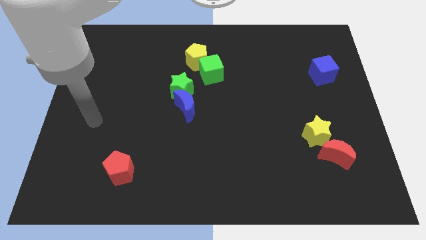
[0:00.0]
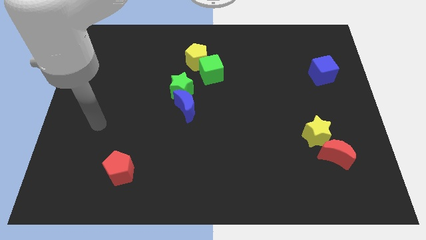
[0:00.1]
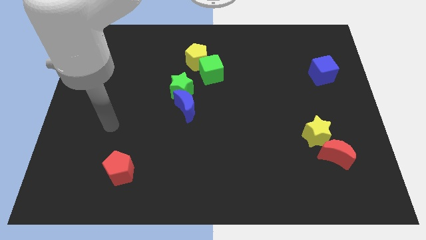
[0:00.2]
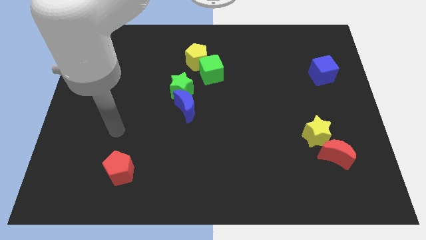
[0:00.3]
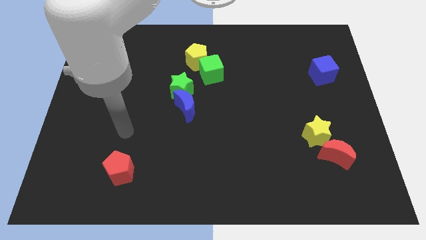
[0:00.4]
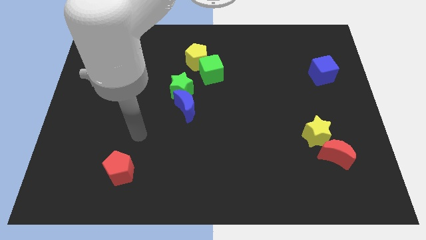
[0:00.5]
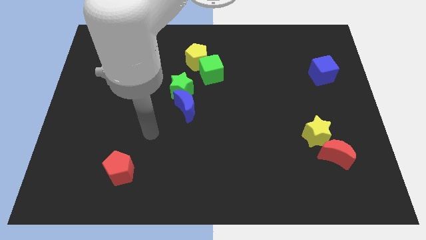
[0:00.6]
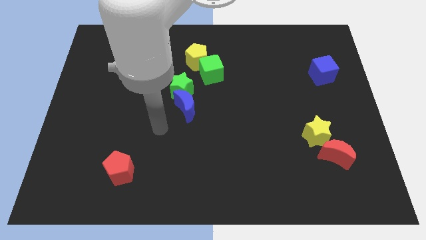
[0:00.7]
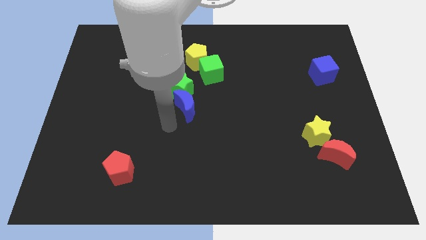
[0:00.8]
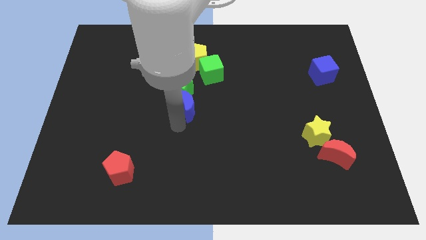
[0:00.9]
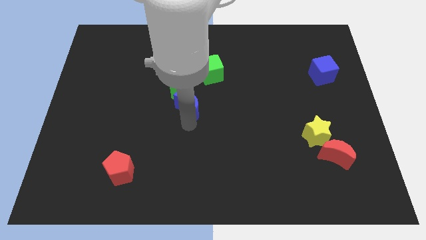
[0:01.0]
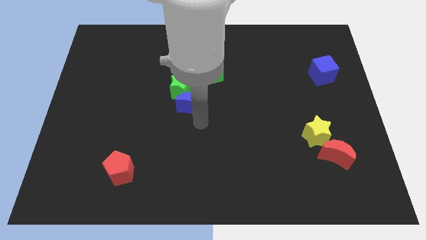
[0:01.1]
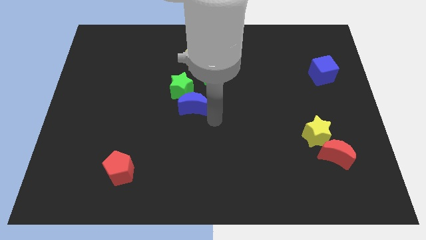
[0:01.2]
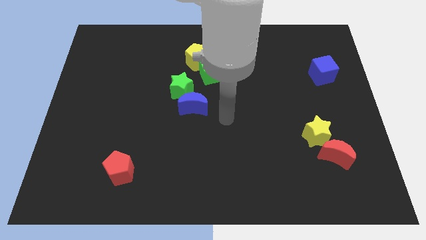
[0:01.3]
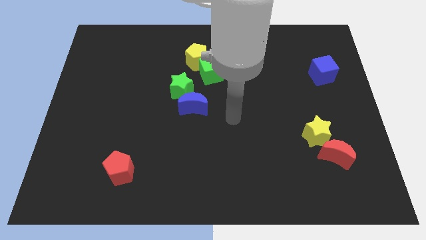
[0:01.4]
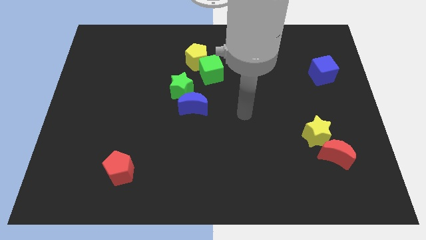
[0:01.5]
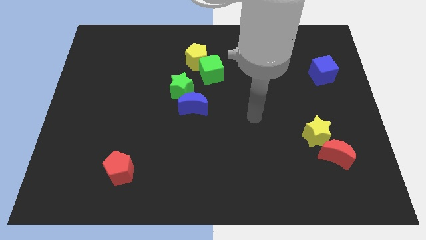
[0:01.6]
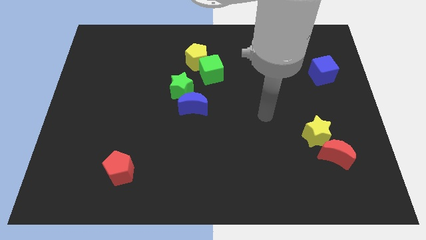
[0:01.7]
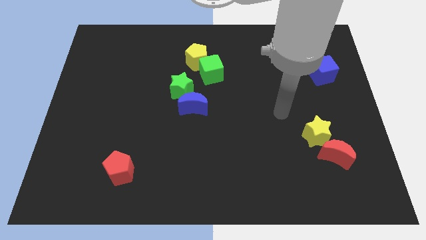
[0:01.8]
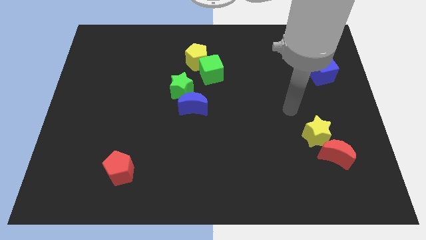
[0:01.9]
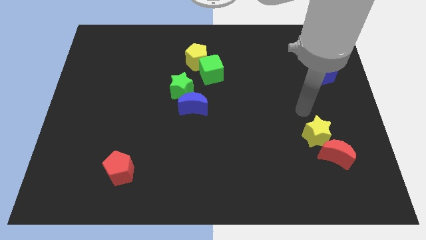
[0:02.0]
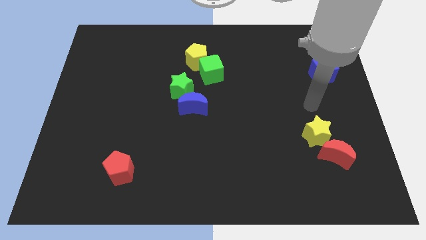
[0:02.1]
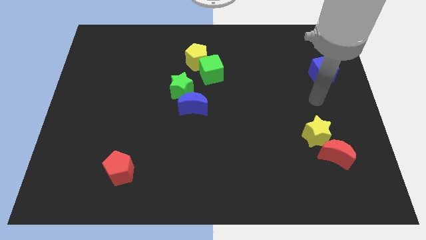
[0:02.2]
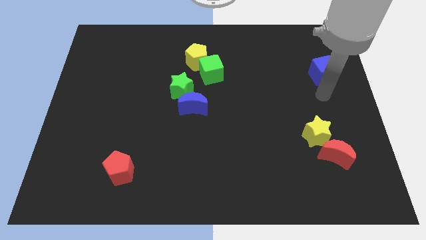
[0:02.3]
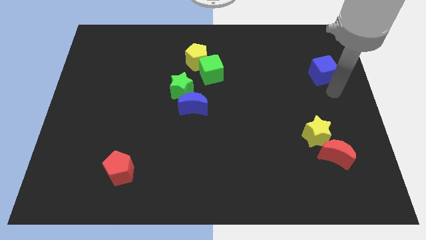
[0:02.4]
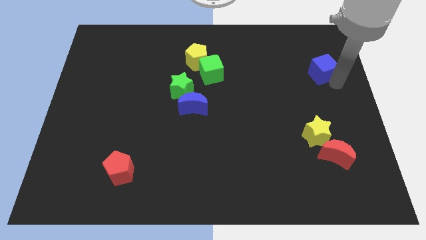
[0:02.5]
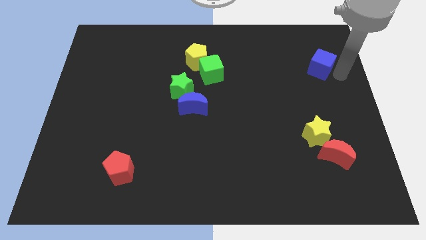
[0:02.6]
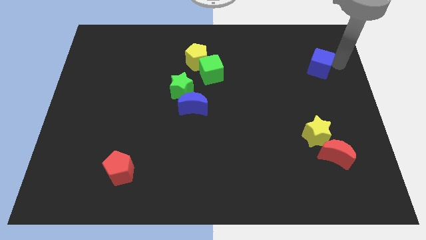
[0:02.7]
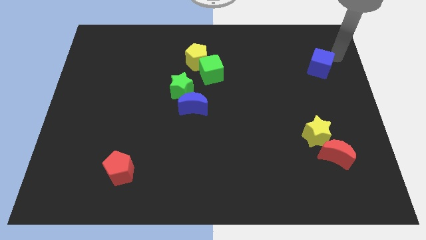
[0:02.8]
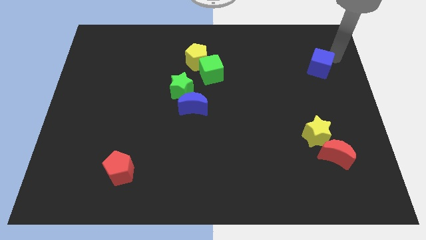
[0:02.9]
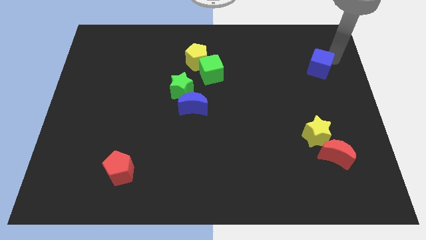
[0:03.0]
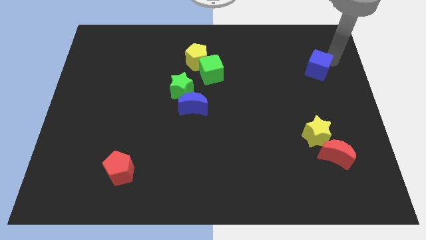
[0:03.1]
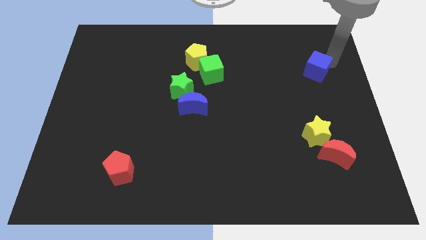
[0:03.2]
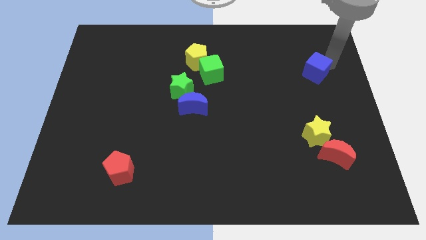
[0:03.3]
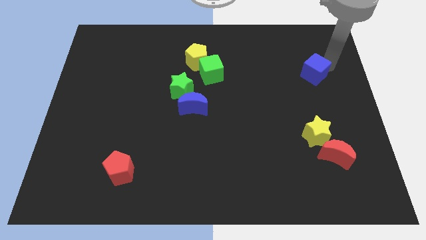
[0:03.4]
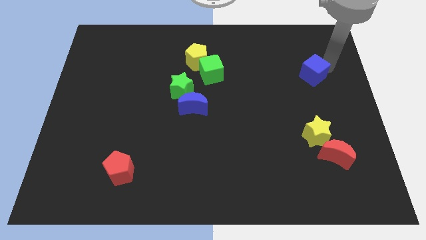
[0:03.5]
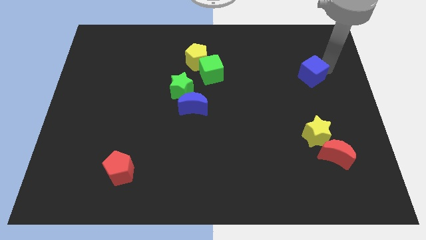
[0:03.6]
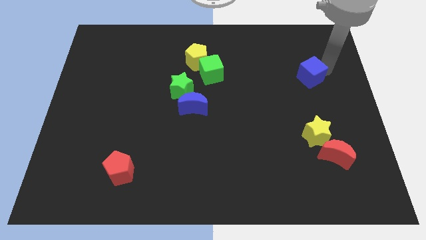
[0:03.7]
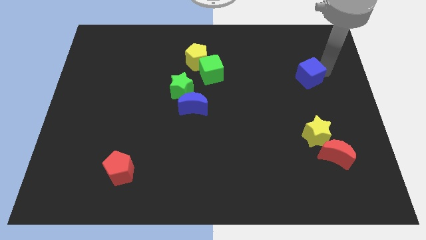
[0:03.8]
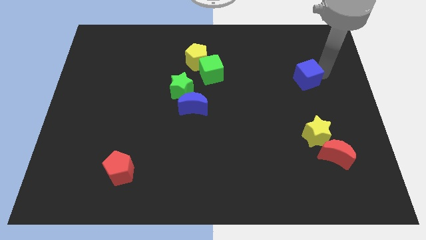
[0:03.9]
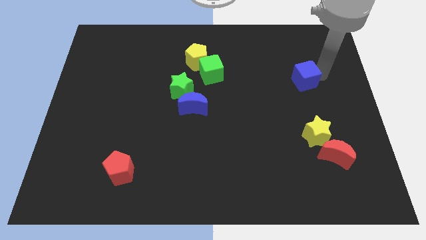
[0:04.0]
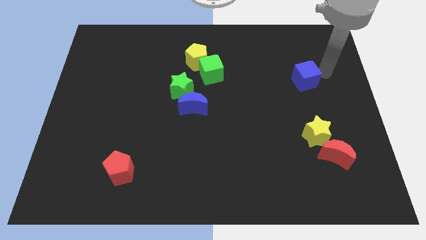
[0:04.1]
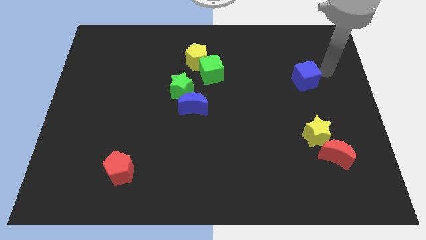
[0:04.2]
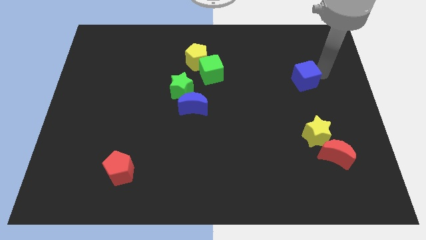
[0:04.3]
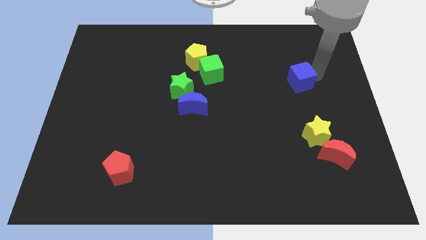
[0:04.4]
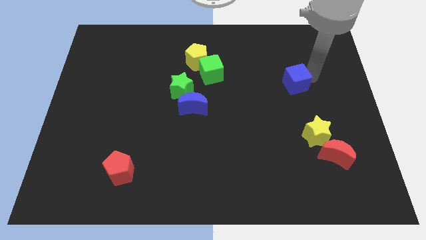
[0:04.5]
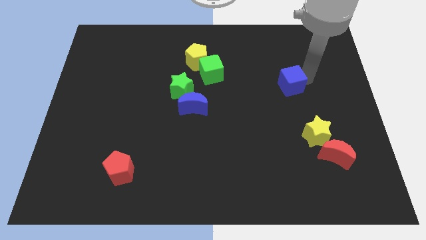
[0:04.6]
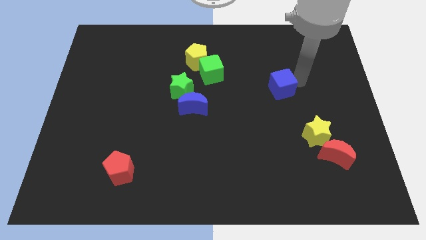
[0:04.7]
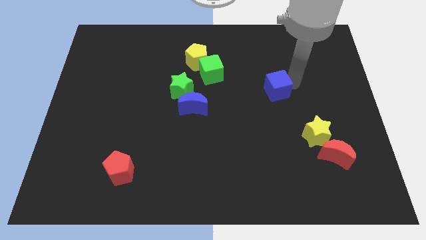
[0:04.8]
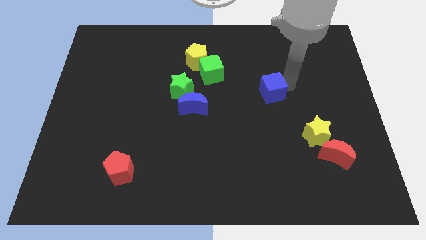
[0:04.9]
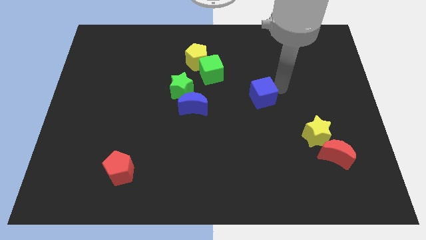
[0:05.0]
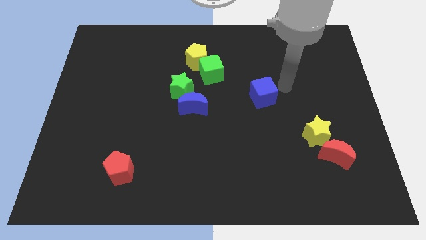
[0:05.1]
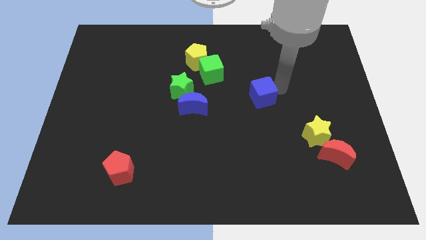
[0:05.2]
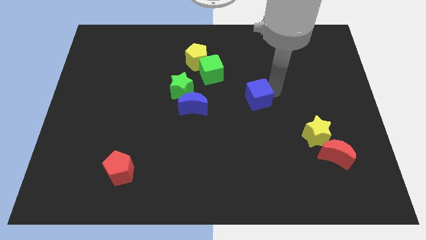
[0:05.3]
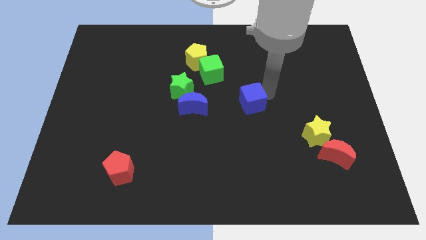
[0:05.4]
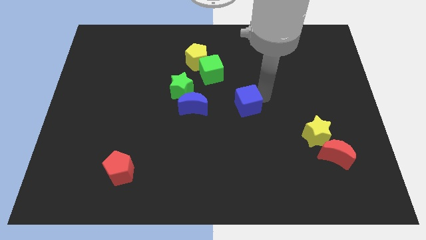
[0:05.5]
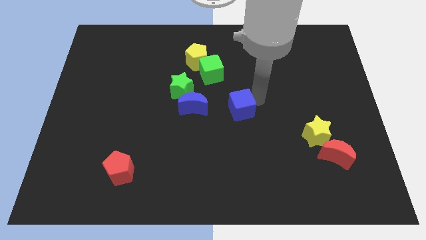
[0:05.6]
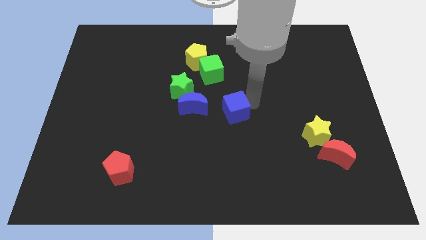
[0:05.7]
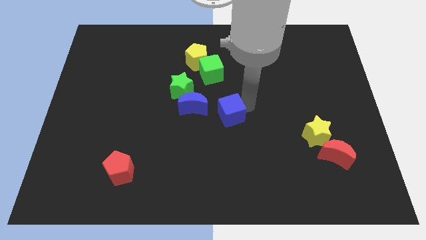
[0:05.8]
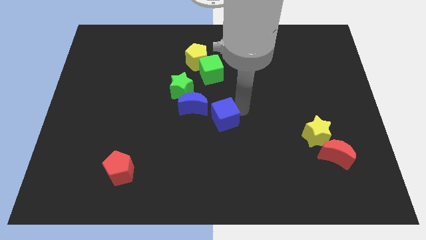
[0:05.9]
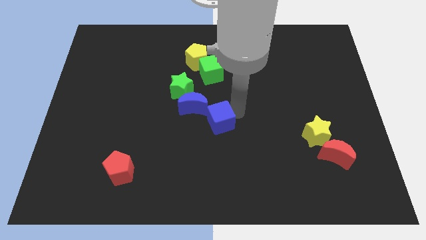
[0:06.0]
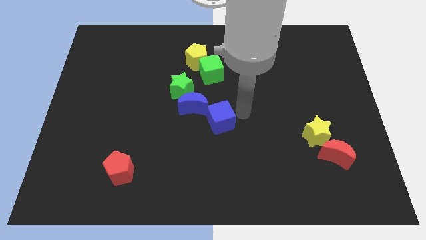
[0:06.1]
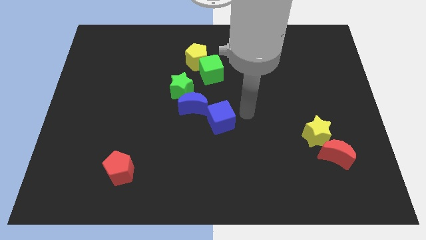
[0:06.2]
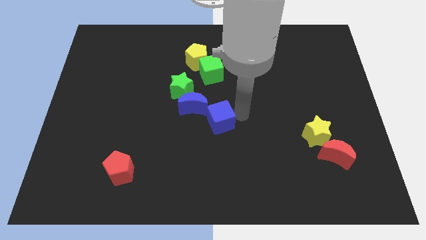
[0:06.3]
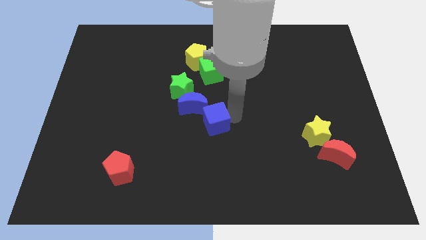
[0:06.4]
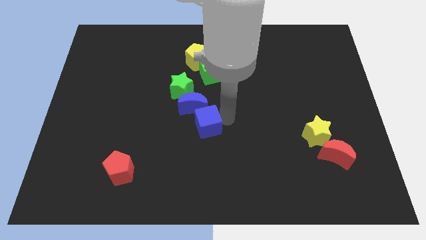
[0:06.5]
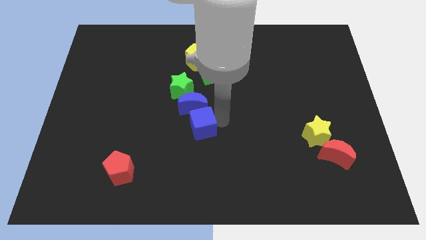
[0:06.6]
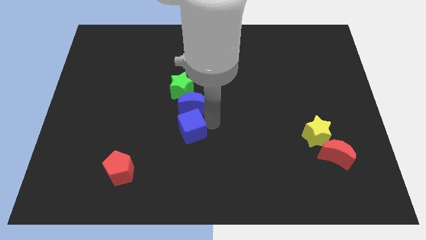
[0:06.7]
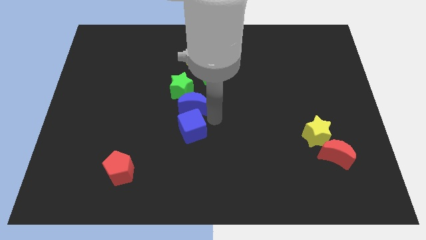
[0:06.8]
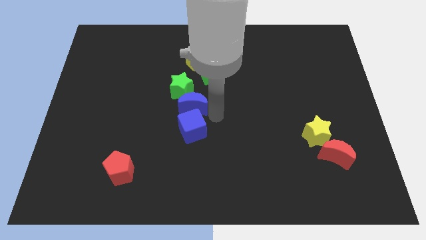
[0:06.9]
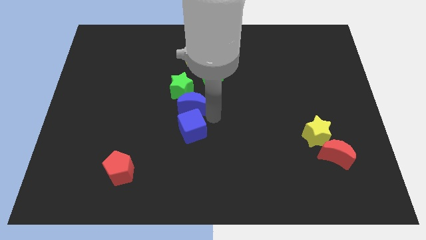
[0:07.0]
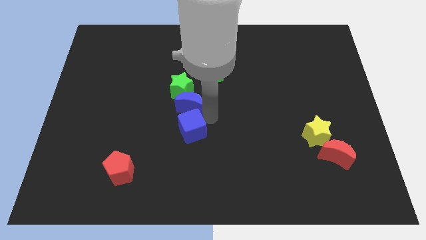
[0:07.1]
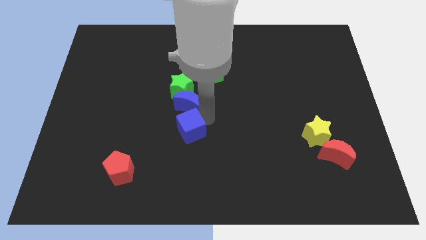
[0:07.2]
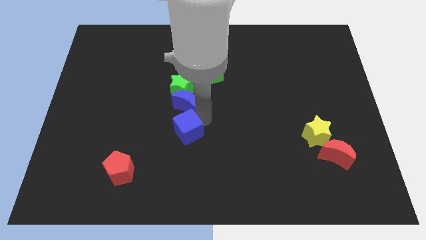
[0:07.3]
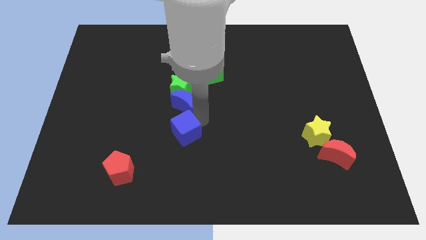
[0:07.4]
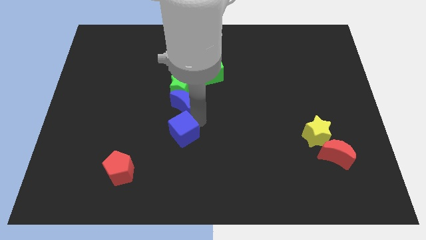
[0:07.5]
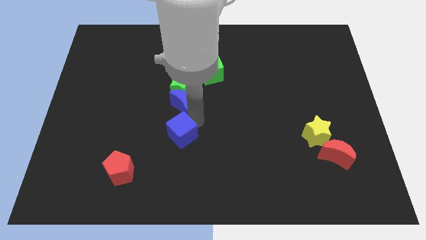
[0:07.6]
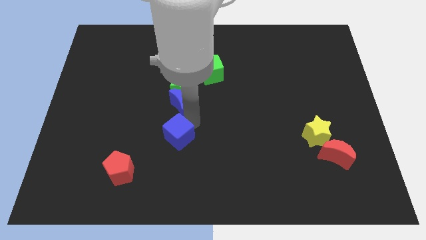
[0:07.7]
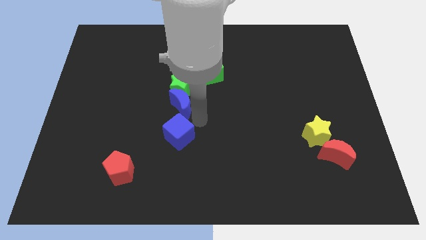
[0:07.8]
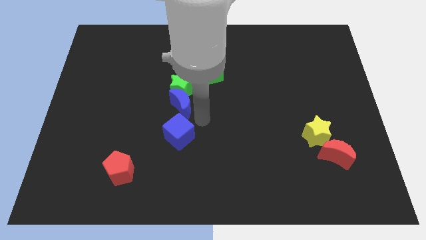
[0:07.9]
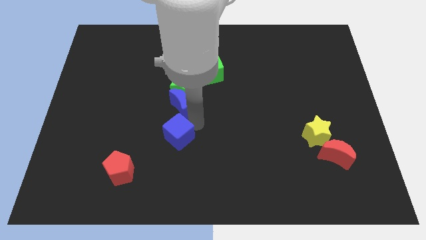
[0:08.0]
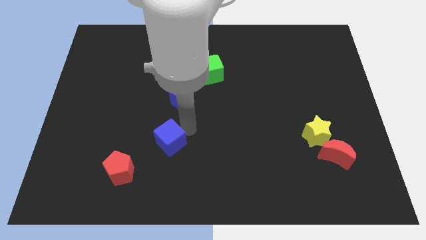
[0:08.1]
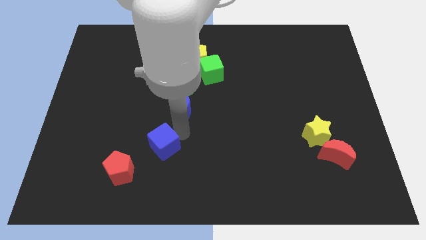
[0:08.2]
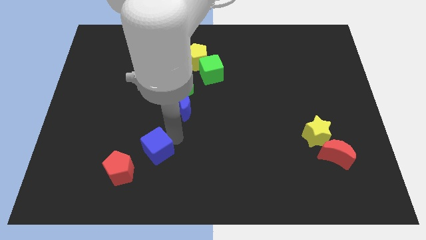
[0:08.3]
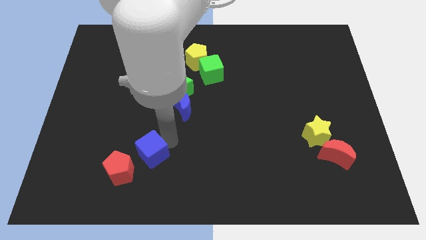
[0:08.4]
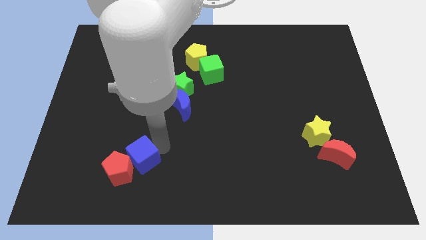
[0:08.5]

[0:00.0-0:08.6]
push the blue cube next to the red pentagon
